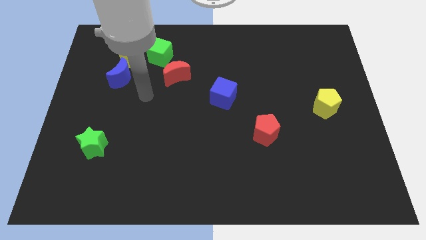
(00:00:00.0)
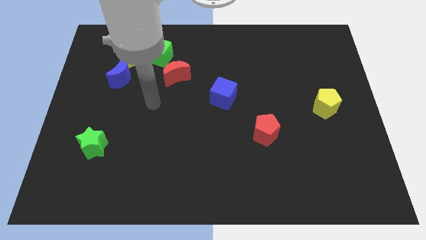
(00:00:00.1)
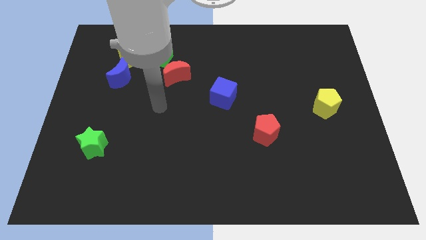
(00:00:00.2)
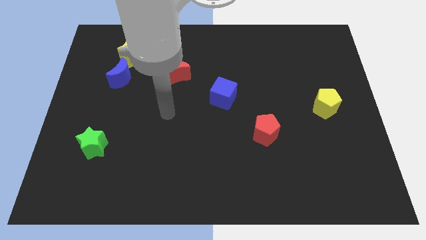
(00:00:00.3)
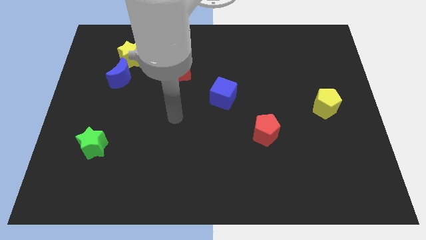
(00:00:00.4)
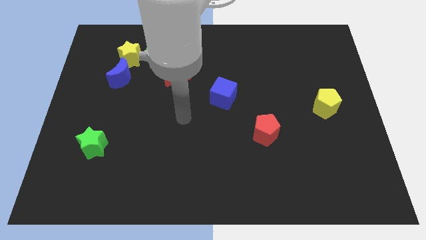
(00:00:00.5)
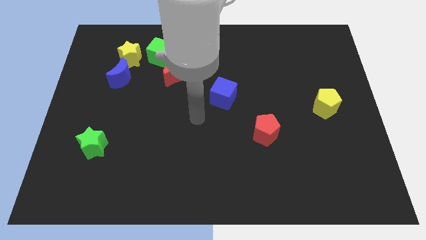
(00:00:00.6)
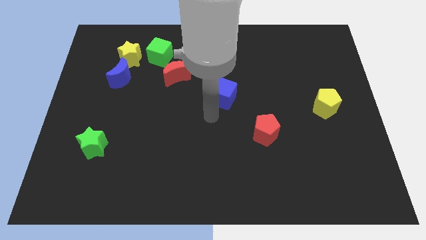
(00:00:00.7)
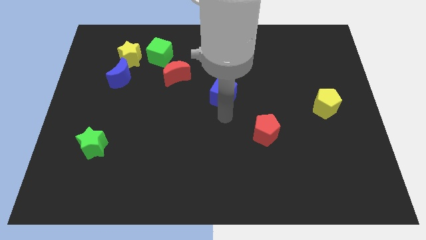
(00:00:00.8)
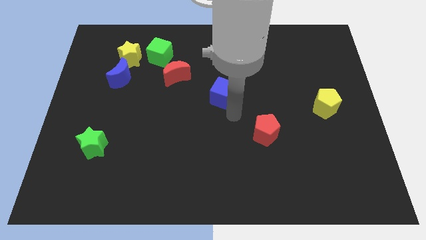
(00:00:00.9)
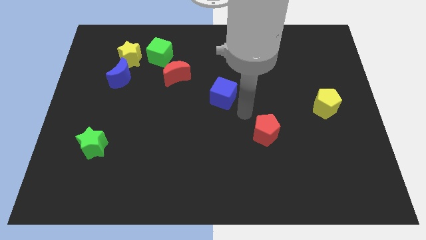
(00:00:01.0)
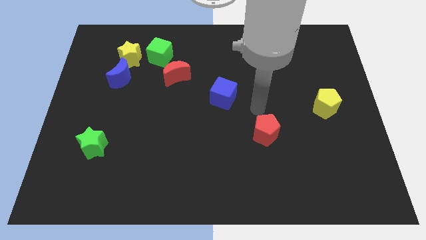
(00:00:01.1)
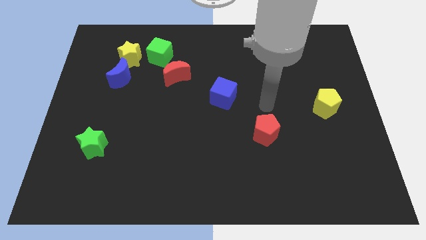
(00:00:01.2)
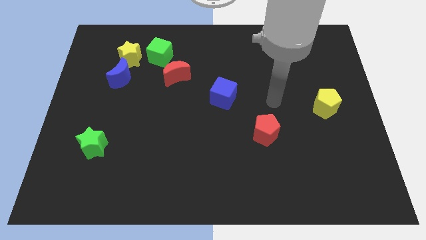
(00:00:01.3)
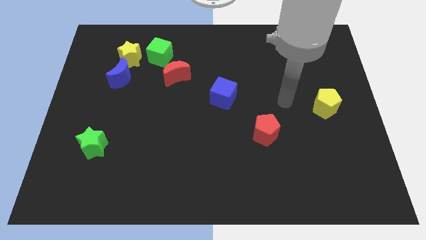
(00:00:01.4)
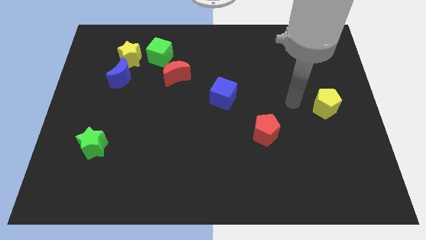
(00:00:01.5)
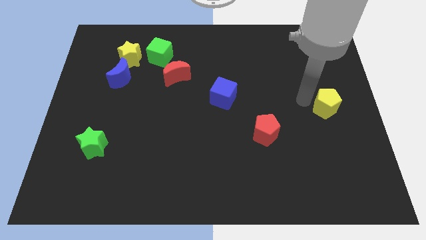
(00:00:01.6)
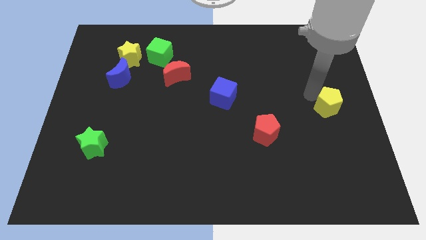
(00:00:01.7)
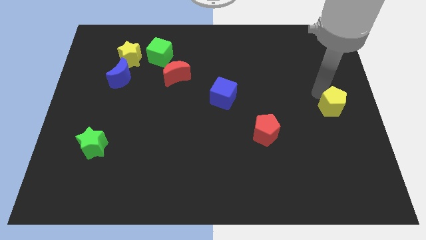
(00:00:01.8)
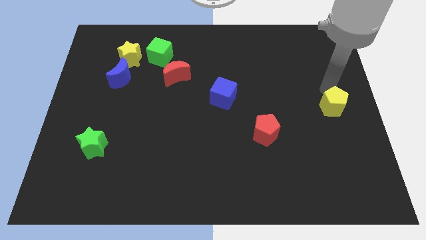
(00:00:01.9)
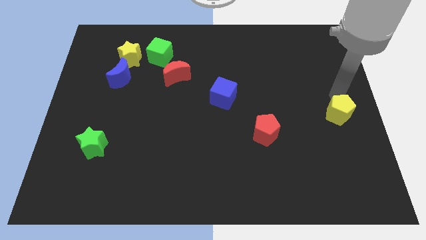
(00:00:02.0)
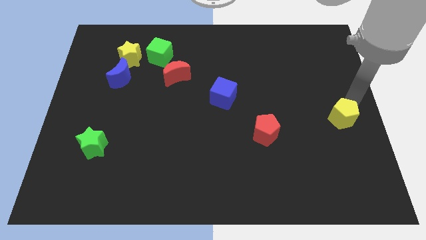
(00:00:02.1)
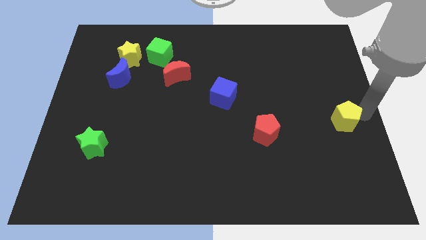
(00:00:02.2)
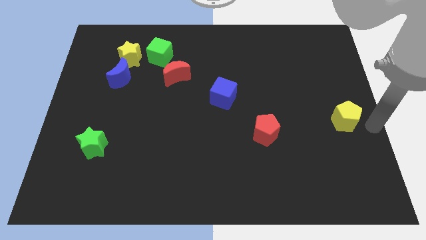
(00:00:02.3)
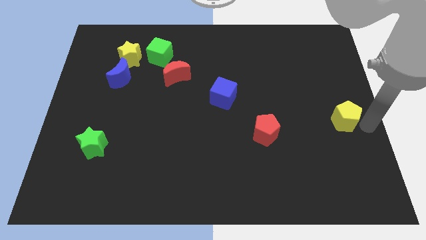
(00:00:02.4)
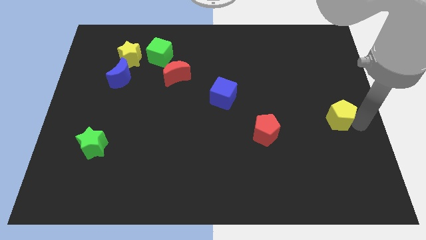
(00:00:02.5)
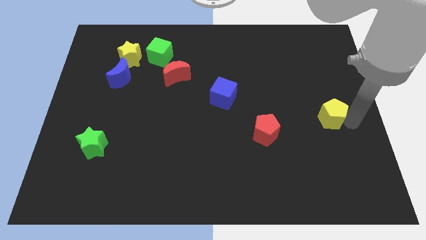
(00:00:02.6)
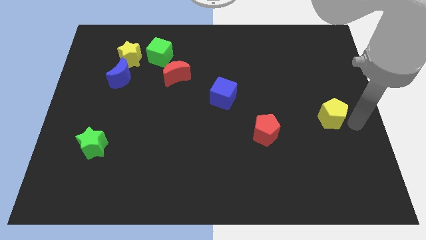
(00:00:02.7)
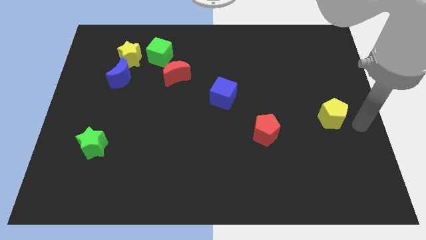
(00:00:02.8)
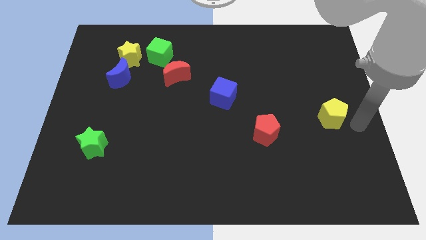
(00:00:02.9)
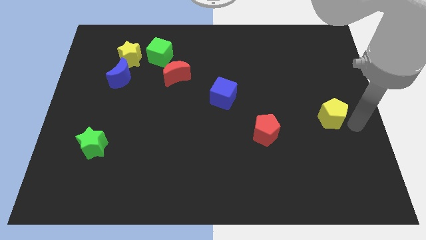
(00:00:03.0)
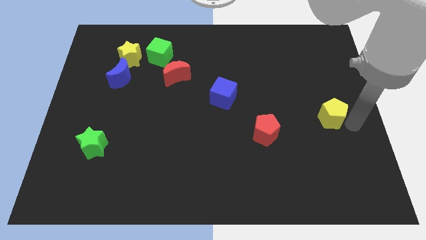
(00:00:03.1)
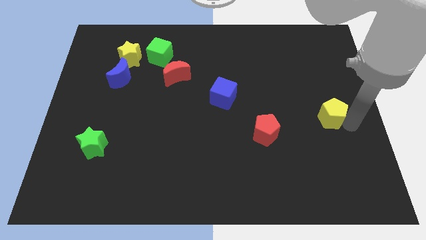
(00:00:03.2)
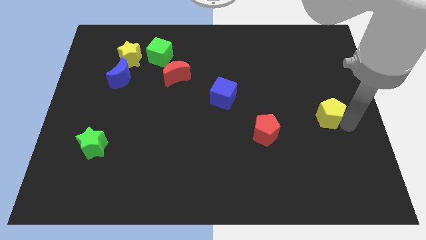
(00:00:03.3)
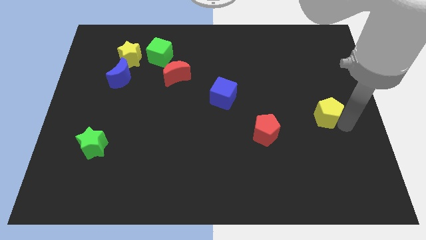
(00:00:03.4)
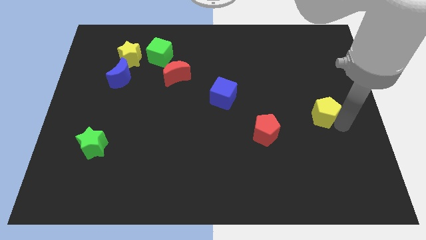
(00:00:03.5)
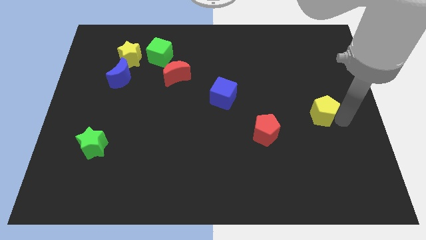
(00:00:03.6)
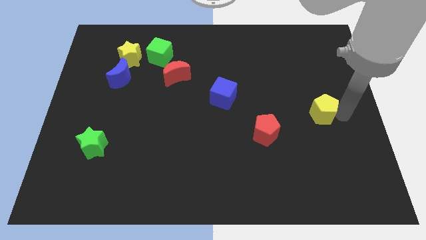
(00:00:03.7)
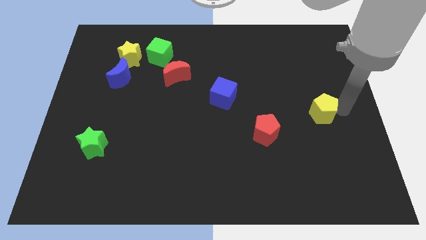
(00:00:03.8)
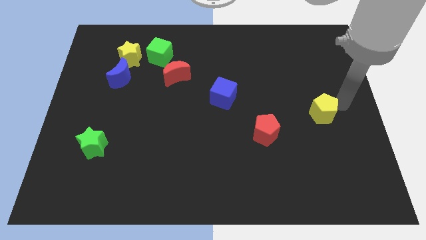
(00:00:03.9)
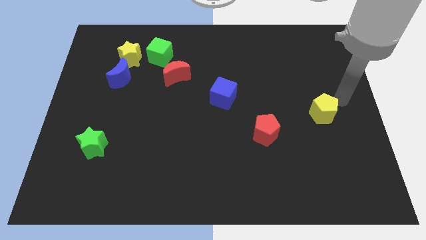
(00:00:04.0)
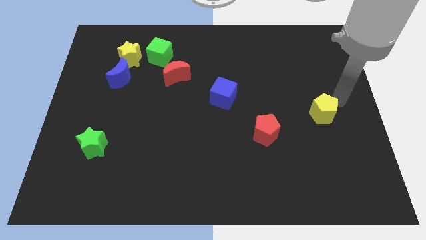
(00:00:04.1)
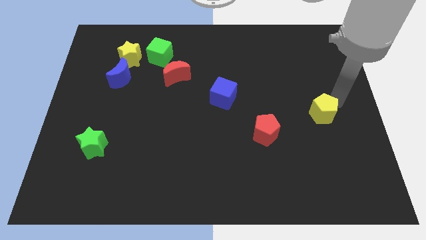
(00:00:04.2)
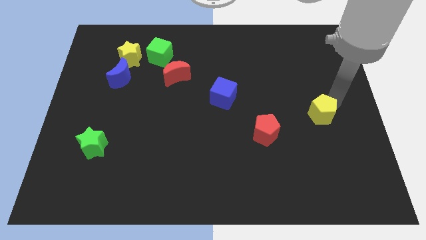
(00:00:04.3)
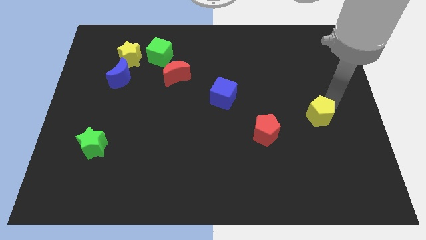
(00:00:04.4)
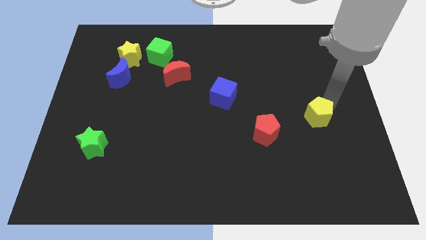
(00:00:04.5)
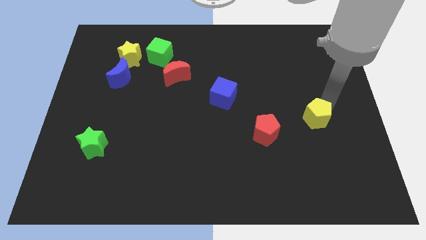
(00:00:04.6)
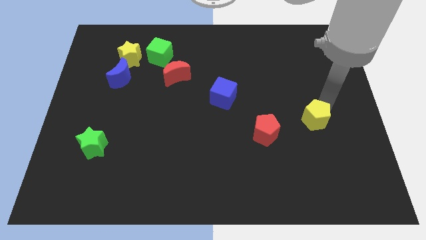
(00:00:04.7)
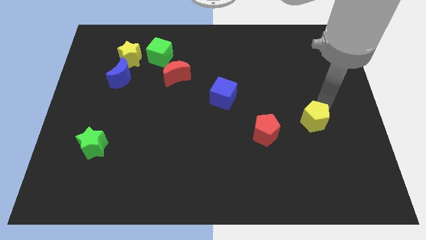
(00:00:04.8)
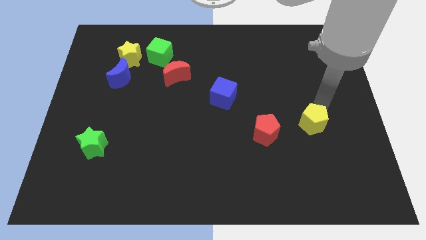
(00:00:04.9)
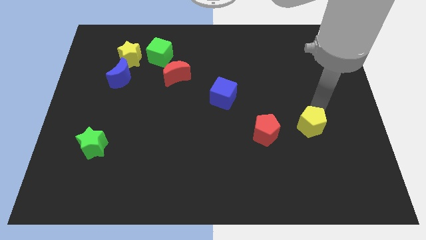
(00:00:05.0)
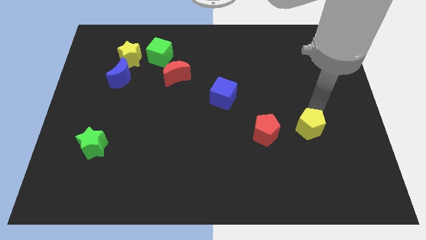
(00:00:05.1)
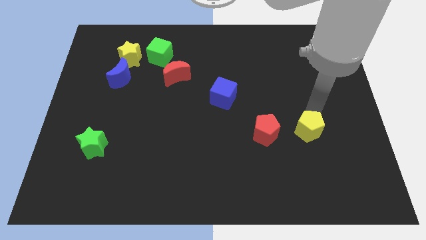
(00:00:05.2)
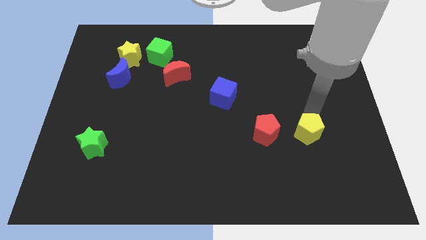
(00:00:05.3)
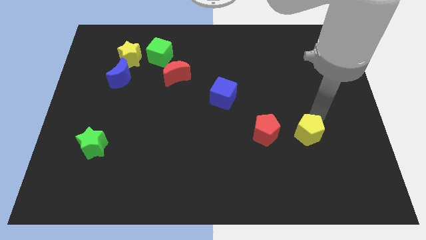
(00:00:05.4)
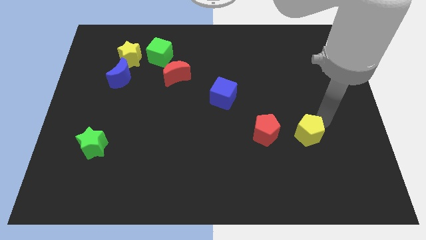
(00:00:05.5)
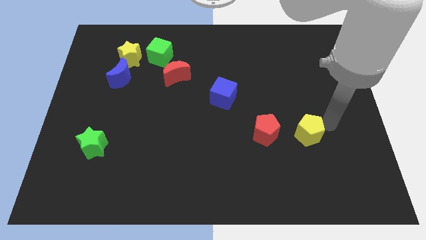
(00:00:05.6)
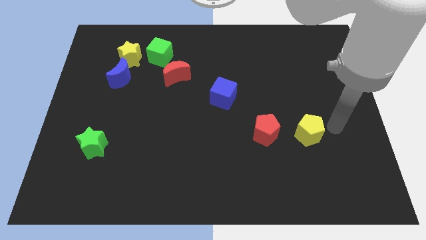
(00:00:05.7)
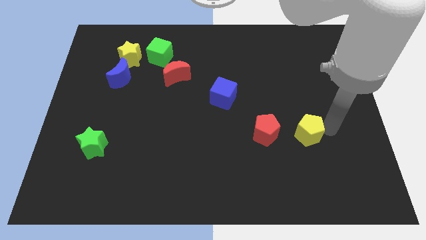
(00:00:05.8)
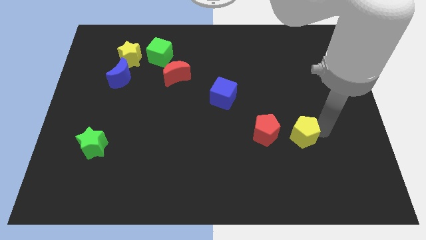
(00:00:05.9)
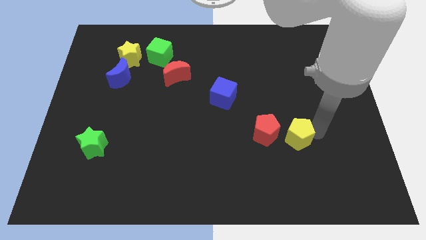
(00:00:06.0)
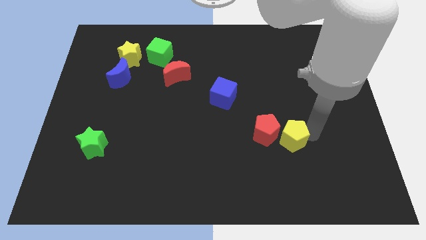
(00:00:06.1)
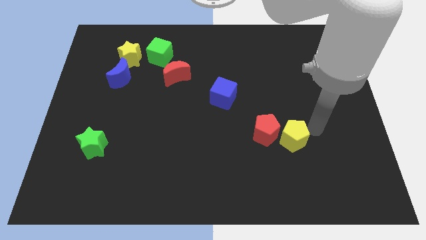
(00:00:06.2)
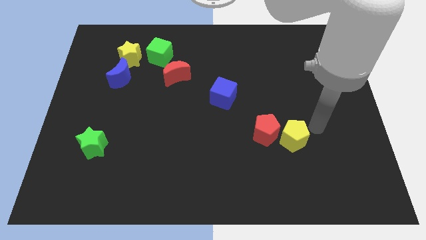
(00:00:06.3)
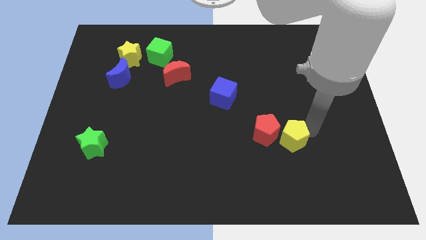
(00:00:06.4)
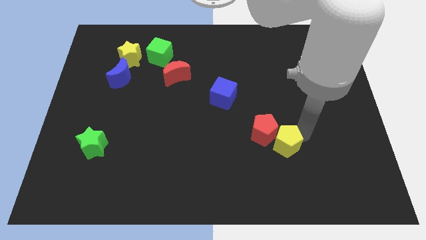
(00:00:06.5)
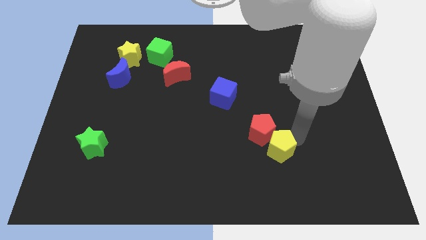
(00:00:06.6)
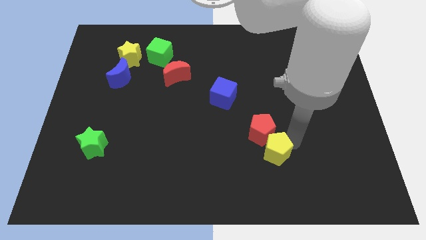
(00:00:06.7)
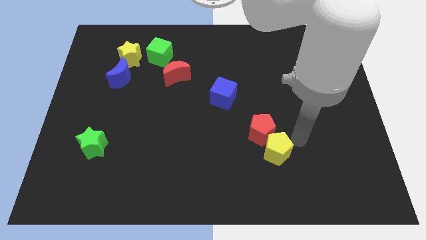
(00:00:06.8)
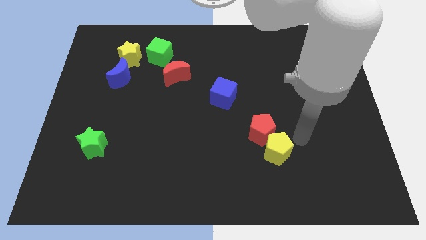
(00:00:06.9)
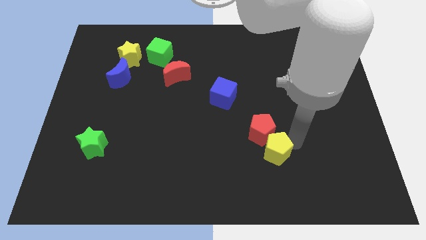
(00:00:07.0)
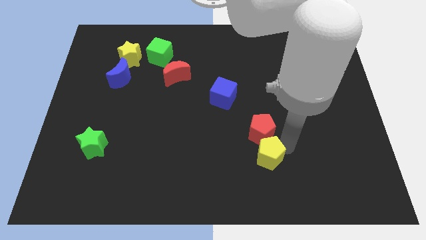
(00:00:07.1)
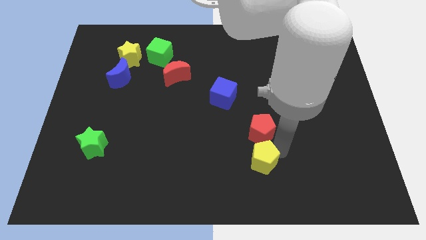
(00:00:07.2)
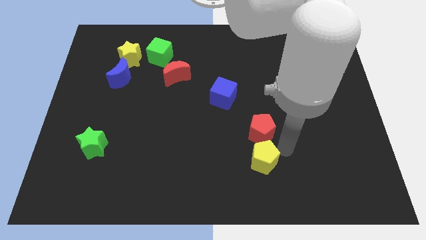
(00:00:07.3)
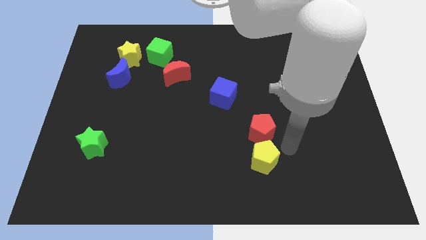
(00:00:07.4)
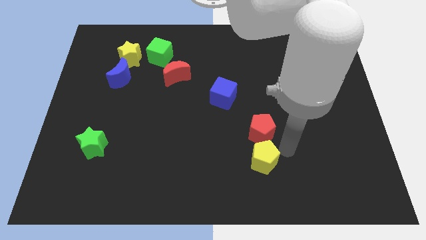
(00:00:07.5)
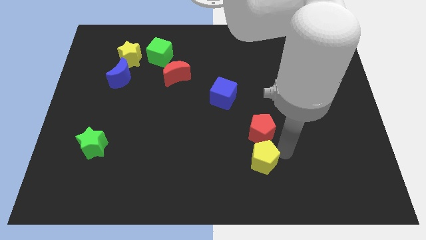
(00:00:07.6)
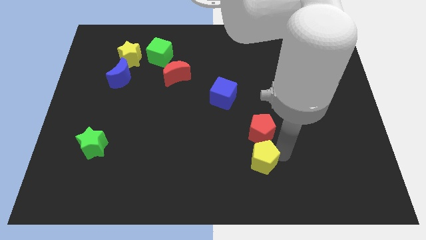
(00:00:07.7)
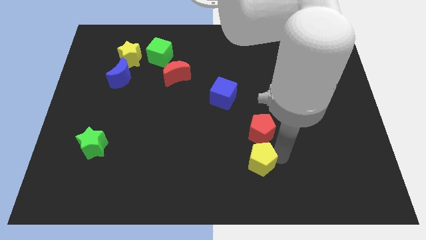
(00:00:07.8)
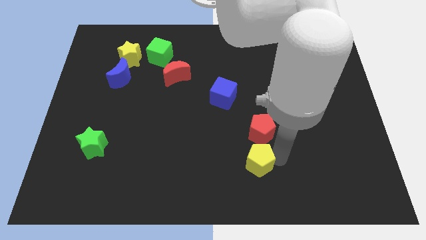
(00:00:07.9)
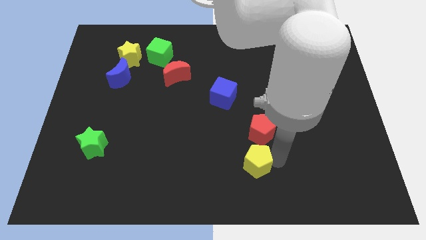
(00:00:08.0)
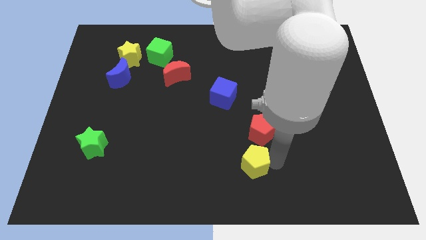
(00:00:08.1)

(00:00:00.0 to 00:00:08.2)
put the yellow pentagon to the bottom
